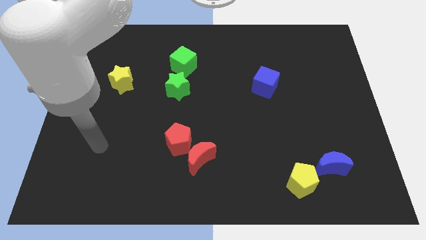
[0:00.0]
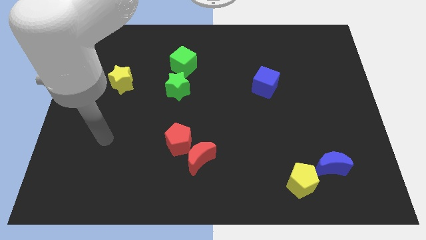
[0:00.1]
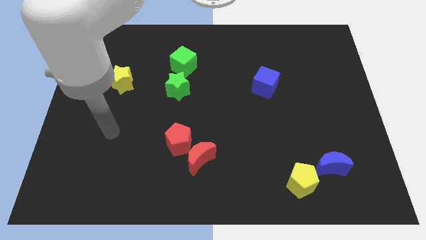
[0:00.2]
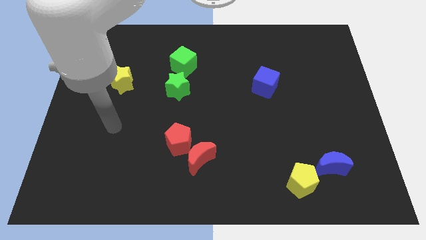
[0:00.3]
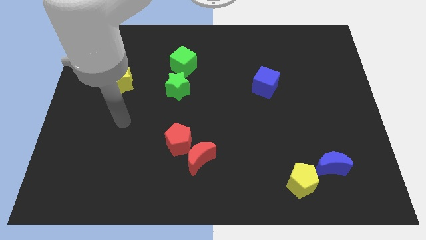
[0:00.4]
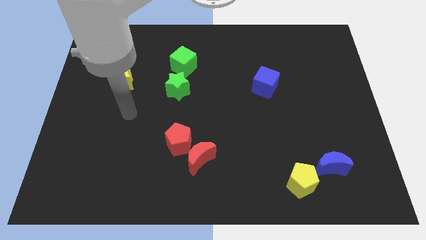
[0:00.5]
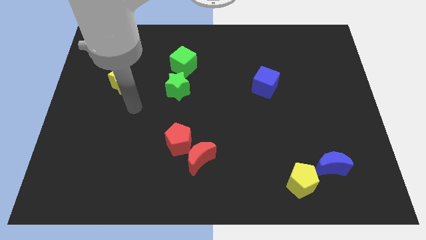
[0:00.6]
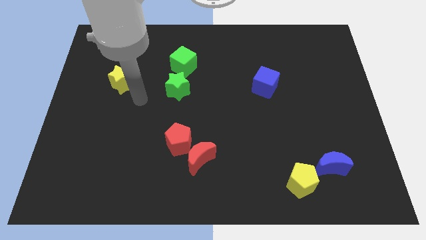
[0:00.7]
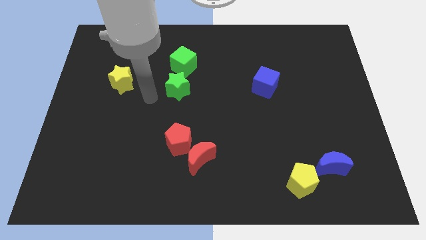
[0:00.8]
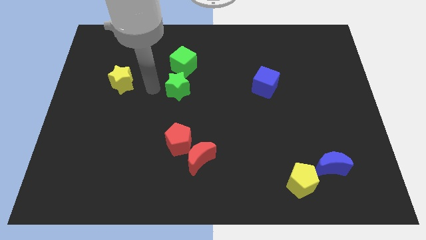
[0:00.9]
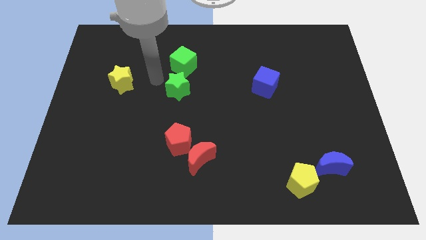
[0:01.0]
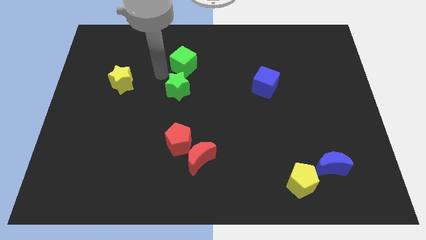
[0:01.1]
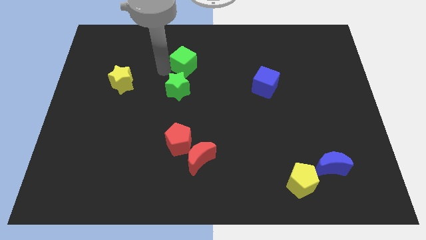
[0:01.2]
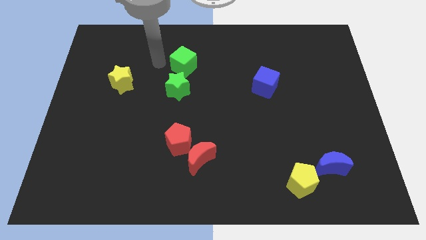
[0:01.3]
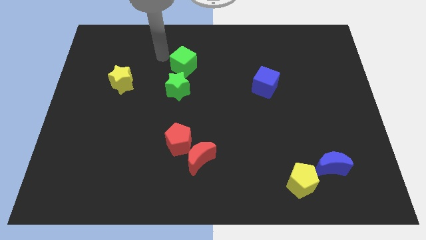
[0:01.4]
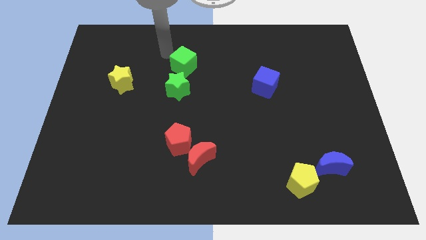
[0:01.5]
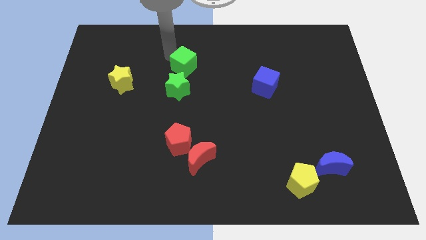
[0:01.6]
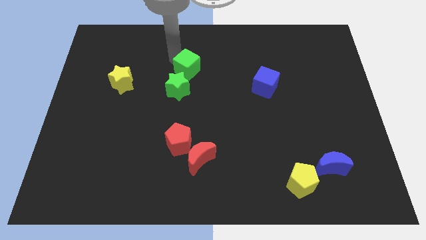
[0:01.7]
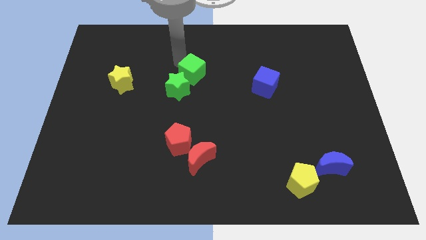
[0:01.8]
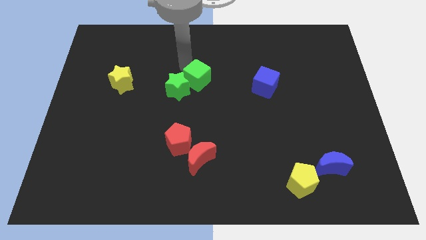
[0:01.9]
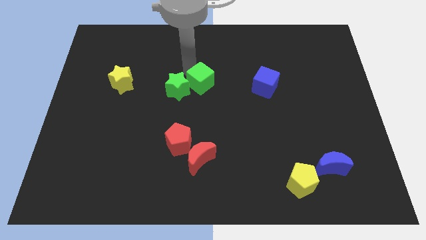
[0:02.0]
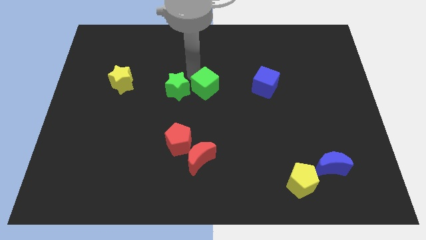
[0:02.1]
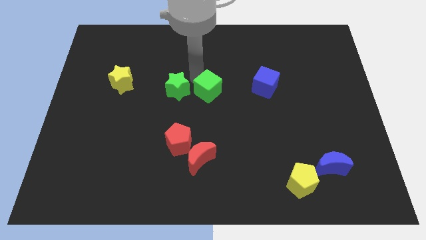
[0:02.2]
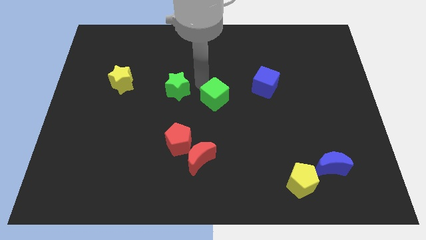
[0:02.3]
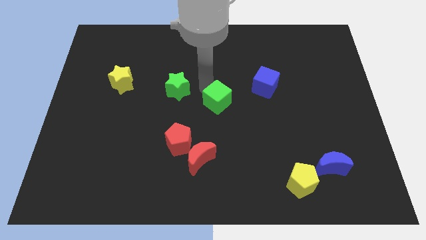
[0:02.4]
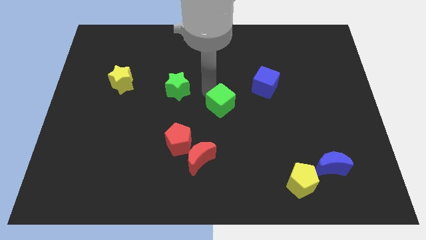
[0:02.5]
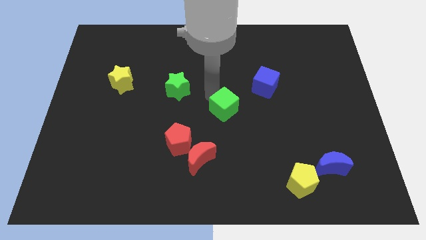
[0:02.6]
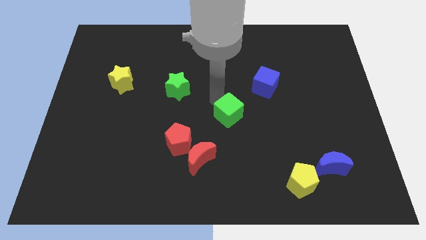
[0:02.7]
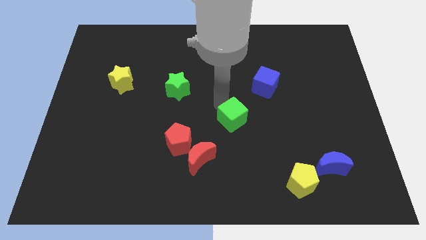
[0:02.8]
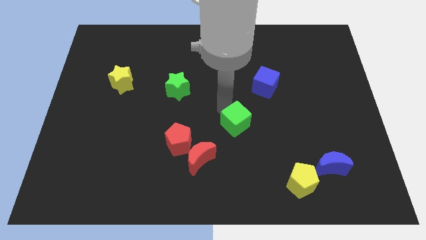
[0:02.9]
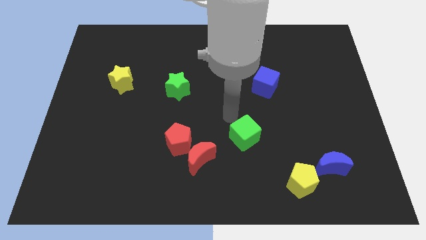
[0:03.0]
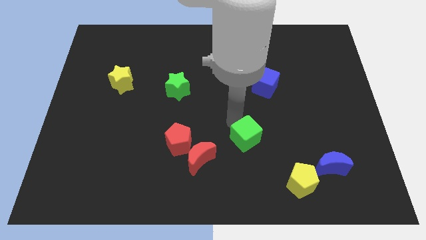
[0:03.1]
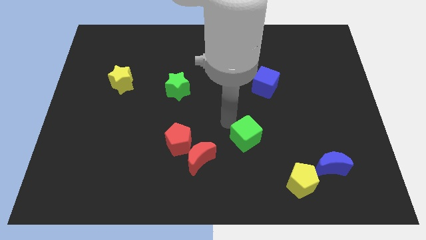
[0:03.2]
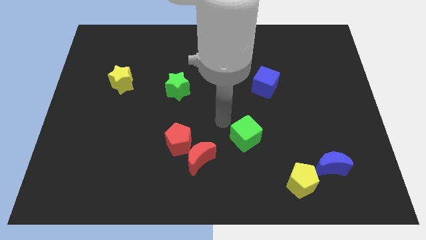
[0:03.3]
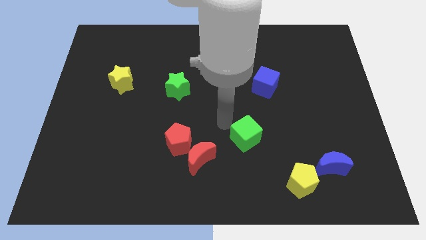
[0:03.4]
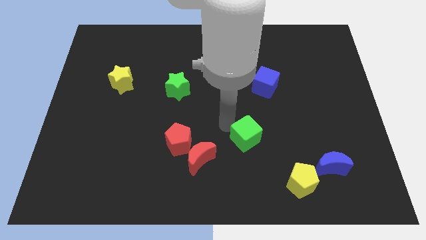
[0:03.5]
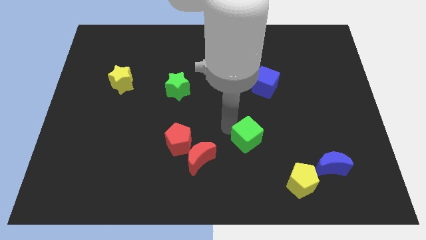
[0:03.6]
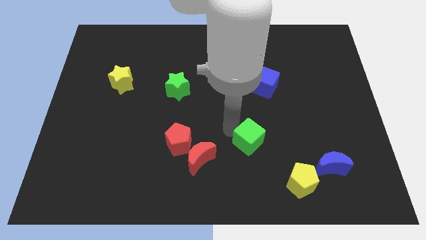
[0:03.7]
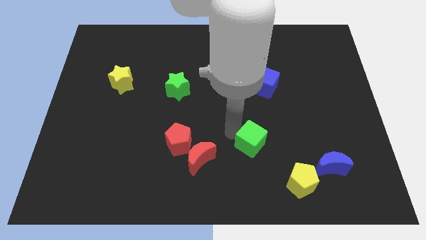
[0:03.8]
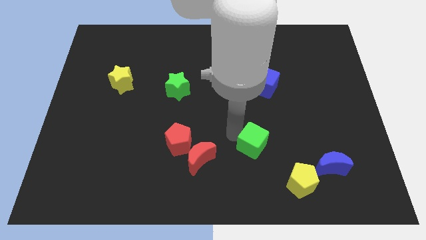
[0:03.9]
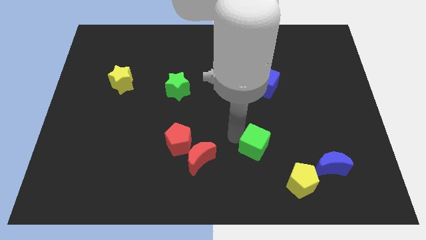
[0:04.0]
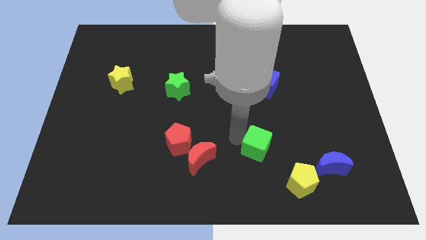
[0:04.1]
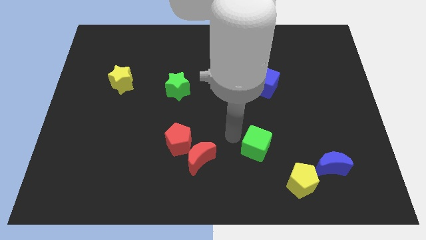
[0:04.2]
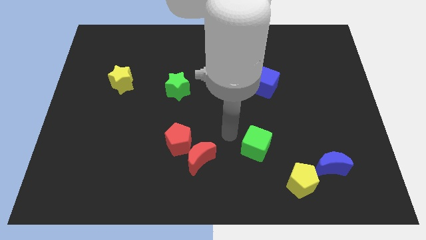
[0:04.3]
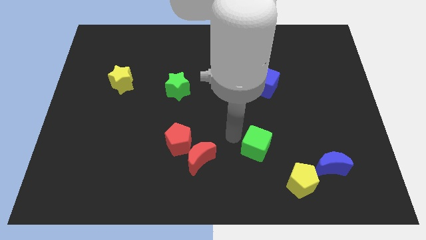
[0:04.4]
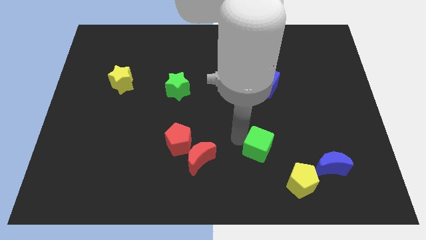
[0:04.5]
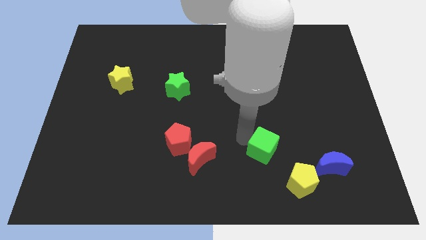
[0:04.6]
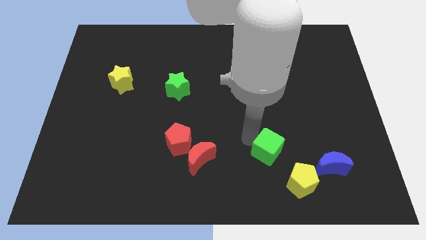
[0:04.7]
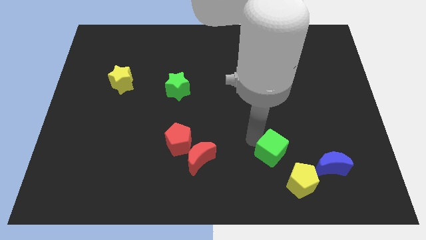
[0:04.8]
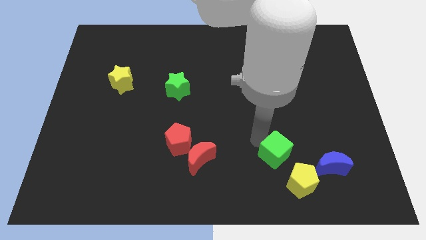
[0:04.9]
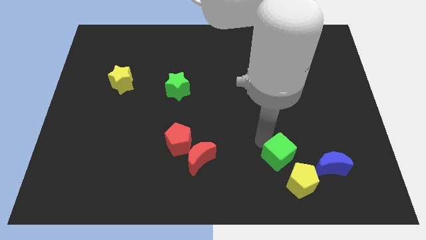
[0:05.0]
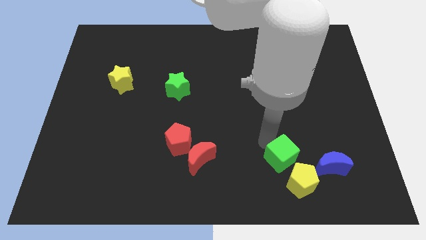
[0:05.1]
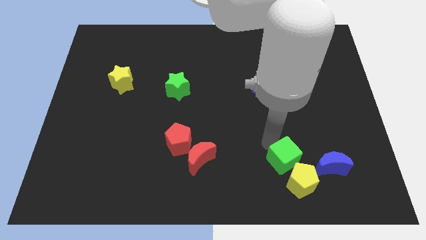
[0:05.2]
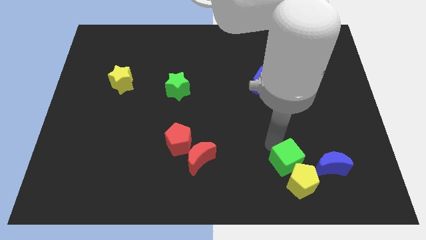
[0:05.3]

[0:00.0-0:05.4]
slide the green cube towards the yellow pentagon

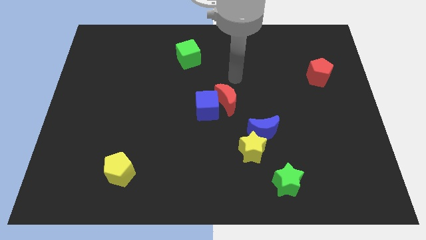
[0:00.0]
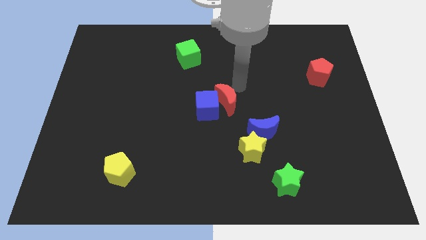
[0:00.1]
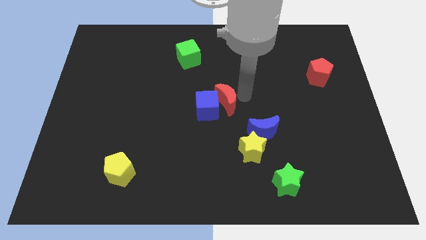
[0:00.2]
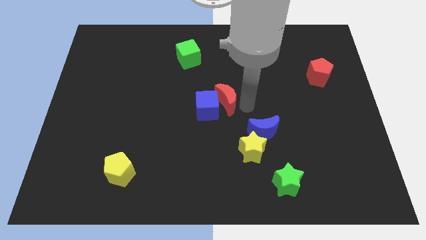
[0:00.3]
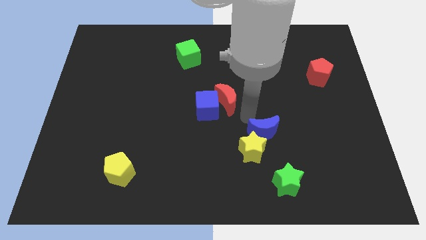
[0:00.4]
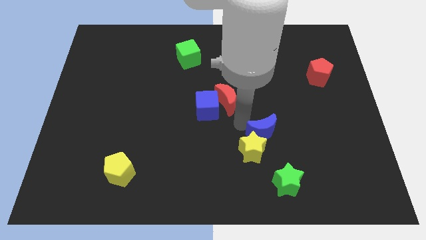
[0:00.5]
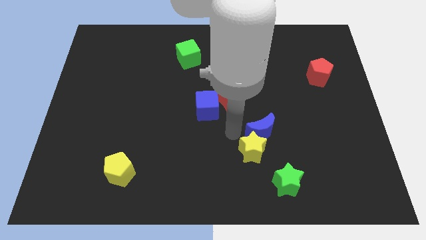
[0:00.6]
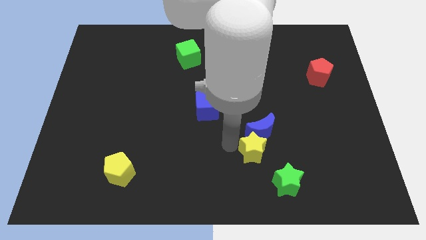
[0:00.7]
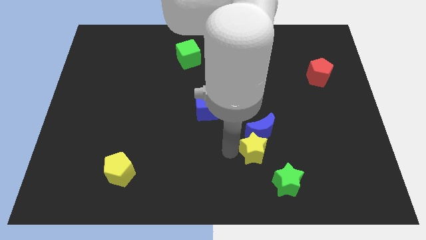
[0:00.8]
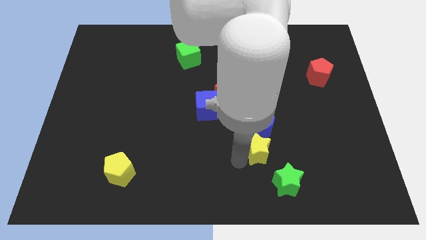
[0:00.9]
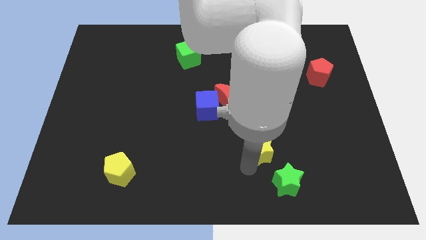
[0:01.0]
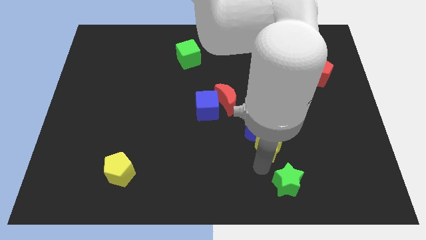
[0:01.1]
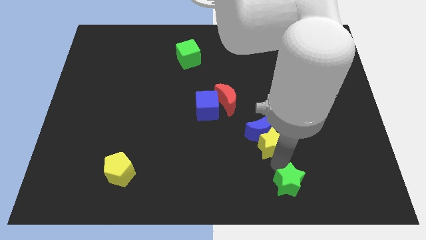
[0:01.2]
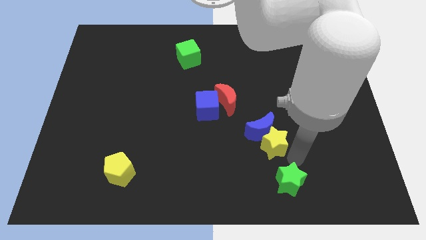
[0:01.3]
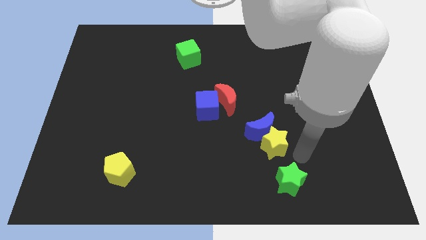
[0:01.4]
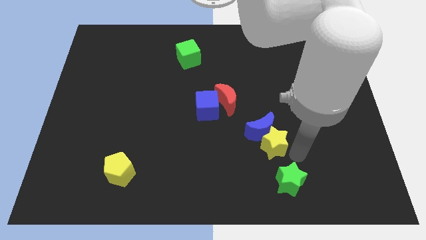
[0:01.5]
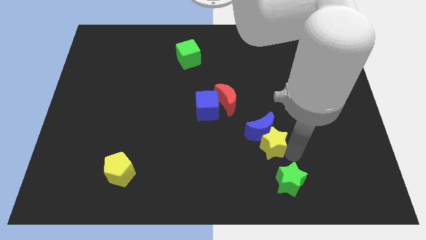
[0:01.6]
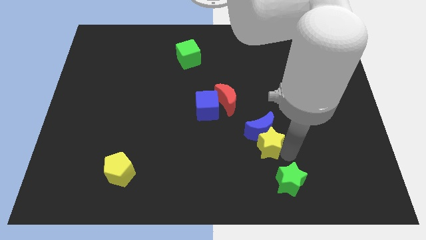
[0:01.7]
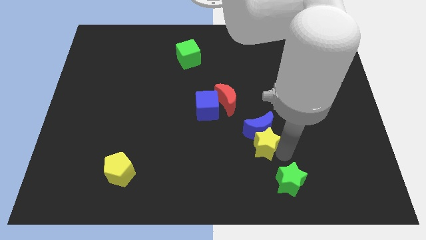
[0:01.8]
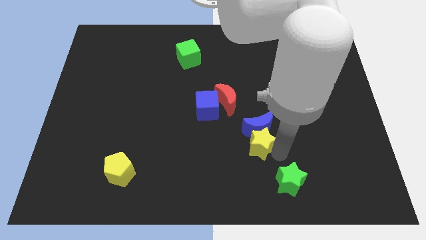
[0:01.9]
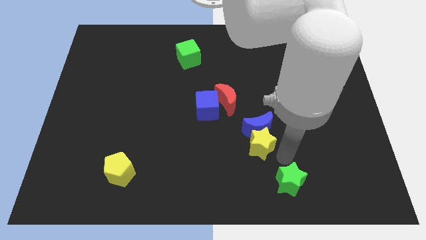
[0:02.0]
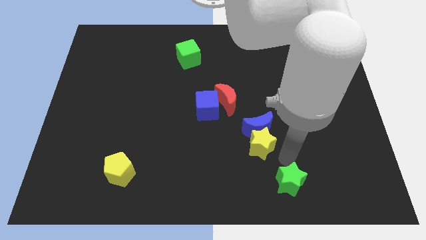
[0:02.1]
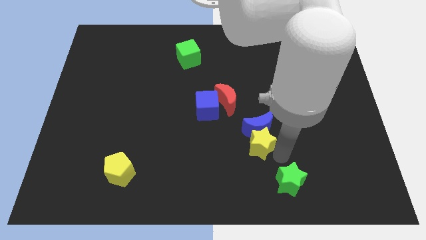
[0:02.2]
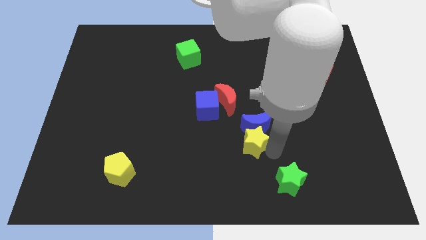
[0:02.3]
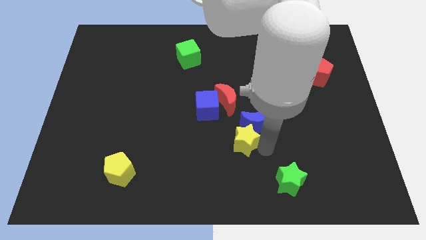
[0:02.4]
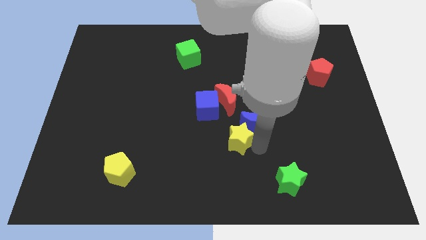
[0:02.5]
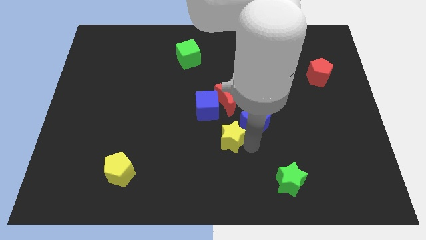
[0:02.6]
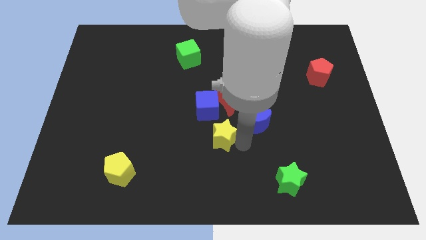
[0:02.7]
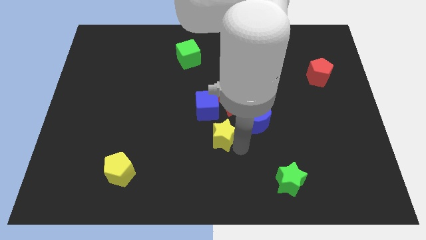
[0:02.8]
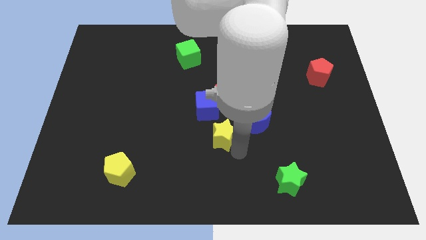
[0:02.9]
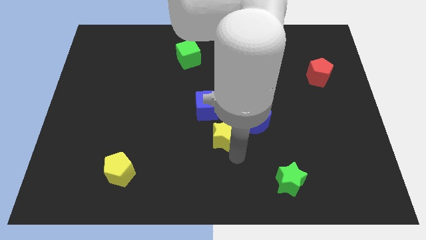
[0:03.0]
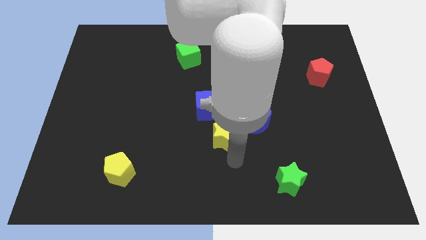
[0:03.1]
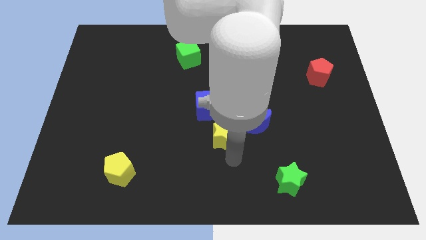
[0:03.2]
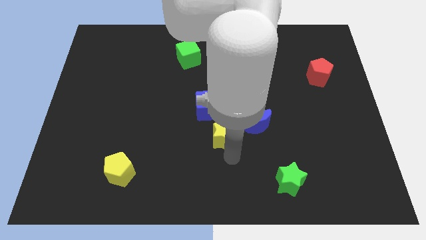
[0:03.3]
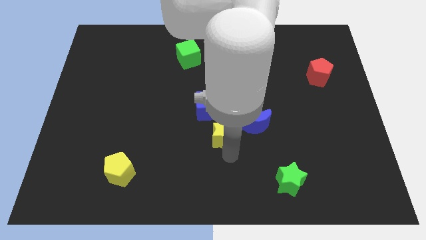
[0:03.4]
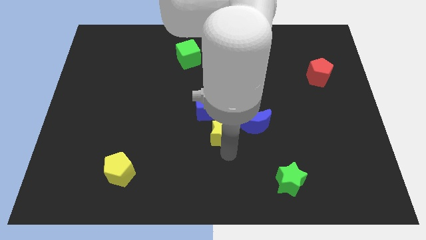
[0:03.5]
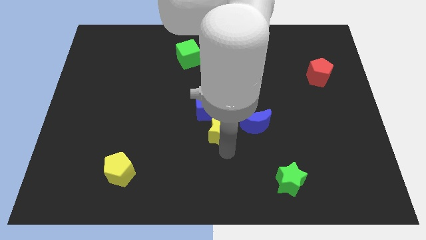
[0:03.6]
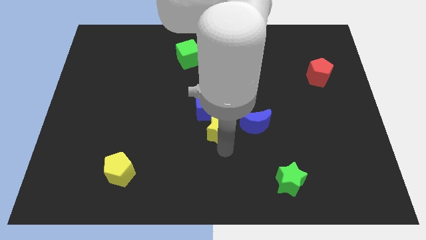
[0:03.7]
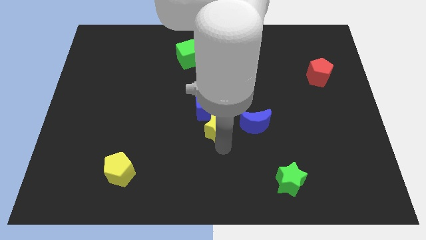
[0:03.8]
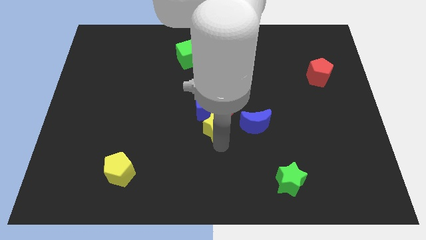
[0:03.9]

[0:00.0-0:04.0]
push the yellow star towards the blue cube
